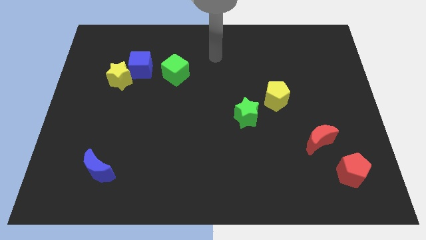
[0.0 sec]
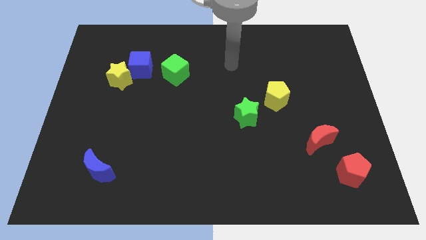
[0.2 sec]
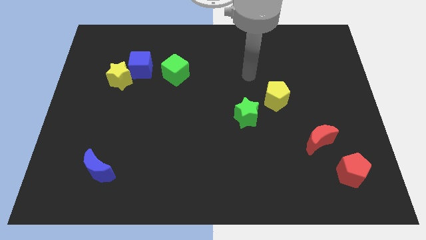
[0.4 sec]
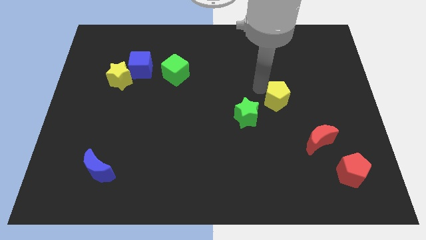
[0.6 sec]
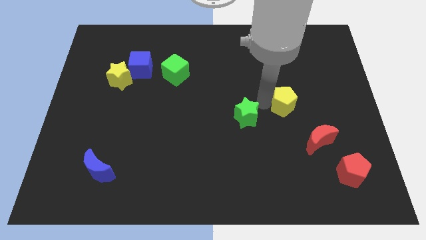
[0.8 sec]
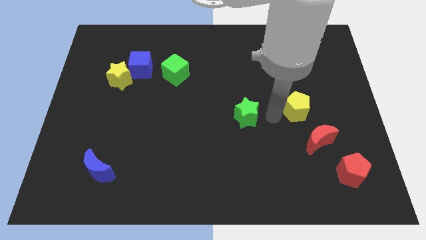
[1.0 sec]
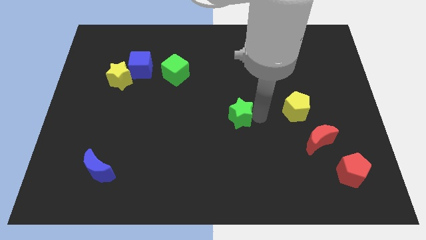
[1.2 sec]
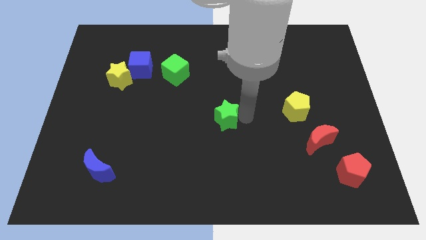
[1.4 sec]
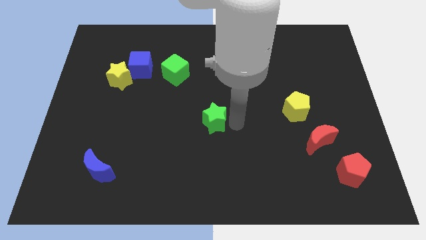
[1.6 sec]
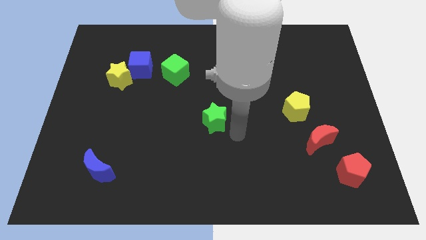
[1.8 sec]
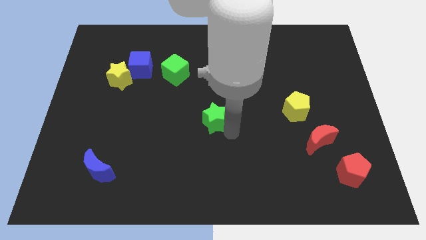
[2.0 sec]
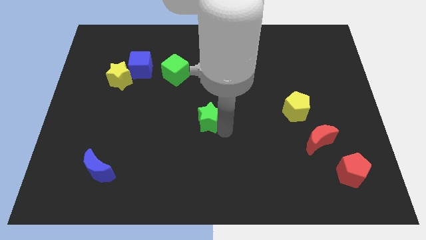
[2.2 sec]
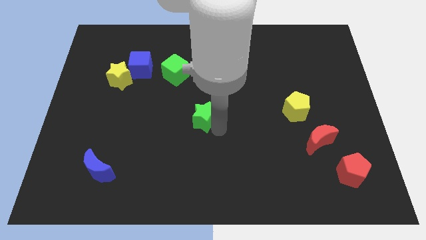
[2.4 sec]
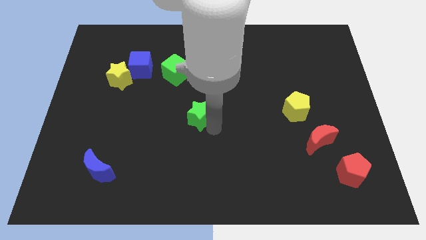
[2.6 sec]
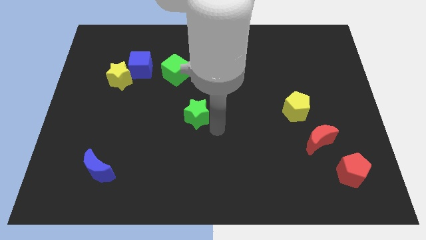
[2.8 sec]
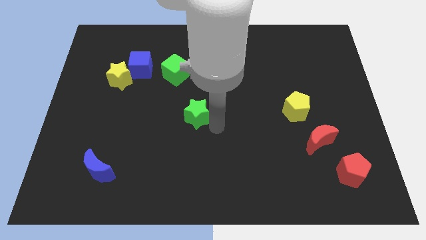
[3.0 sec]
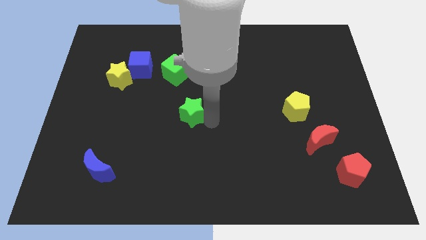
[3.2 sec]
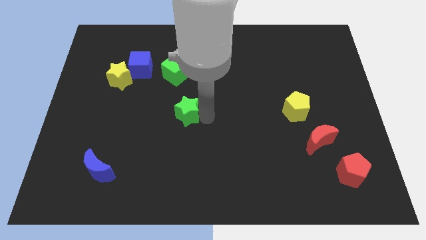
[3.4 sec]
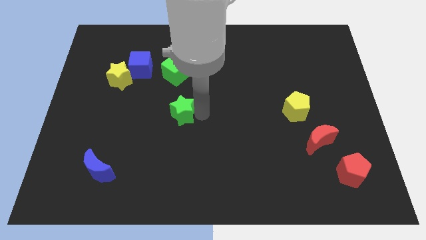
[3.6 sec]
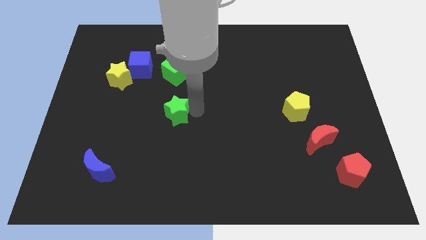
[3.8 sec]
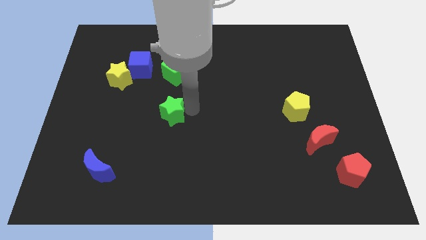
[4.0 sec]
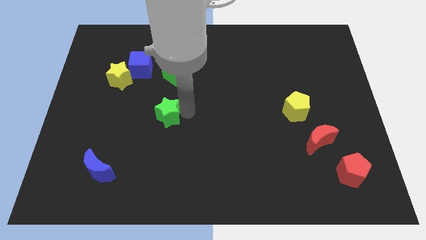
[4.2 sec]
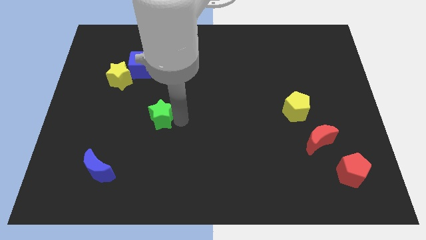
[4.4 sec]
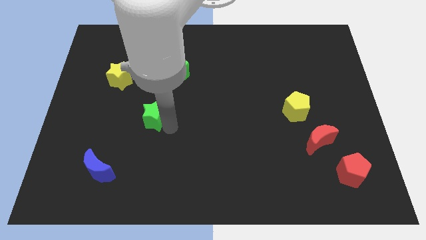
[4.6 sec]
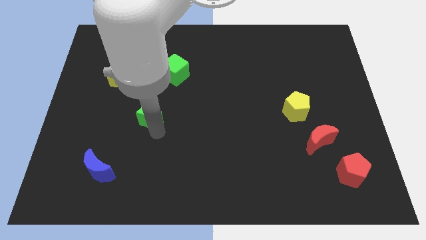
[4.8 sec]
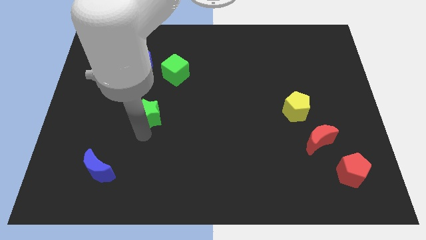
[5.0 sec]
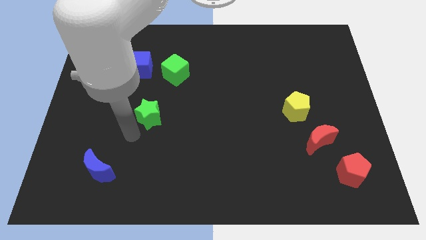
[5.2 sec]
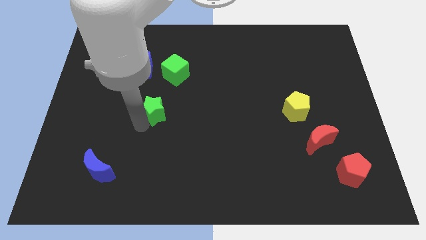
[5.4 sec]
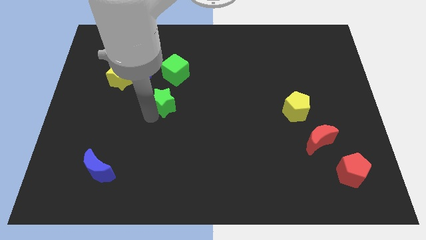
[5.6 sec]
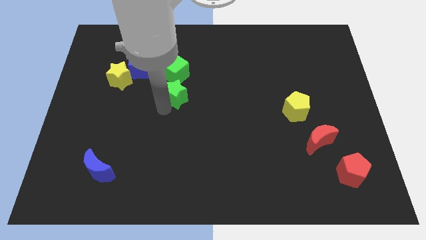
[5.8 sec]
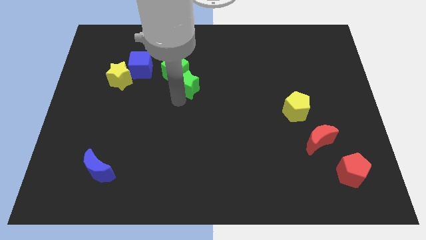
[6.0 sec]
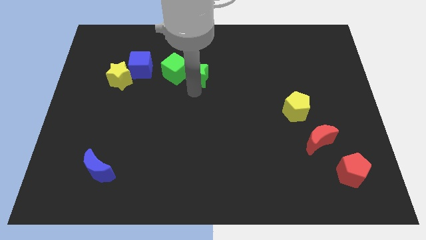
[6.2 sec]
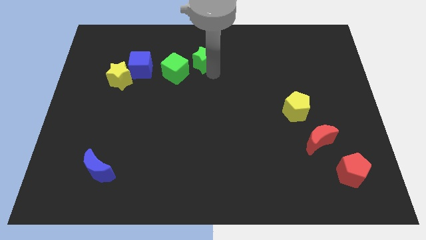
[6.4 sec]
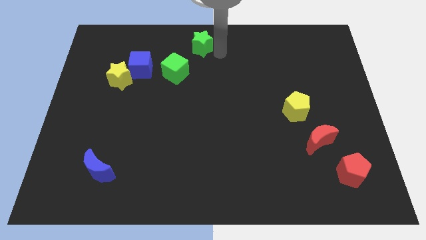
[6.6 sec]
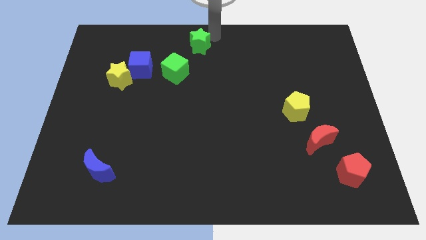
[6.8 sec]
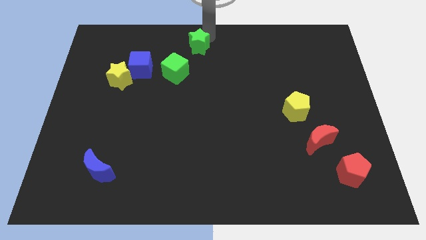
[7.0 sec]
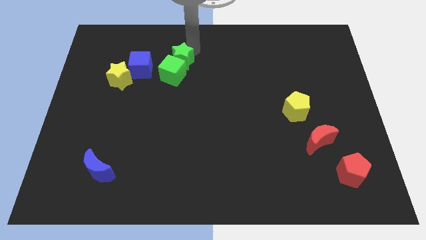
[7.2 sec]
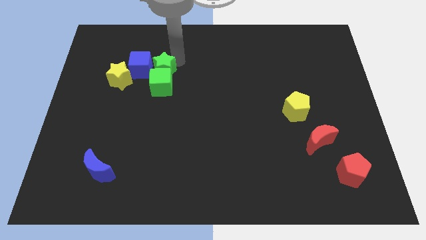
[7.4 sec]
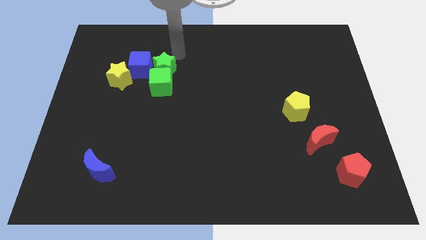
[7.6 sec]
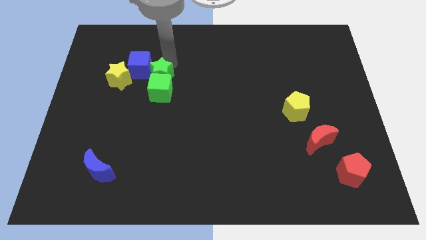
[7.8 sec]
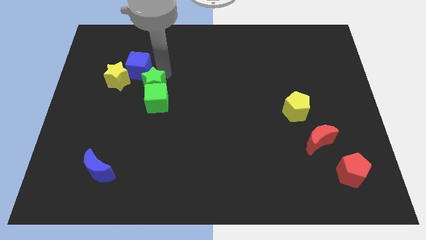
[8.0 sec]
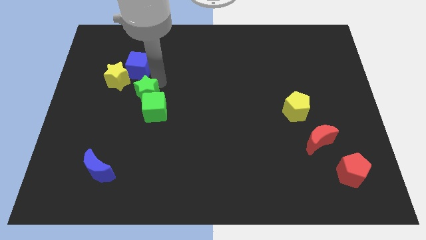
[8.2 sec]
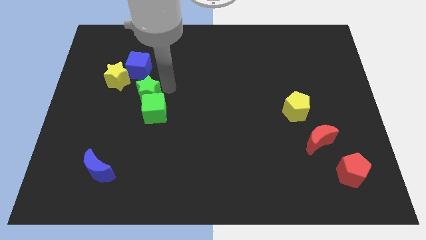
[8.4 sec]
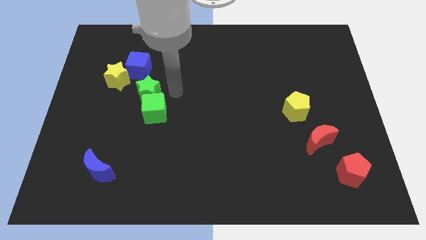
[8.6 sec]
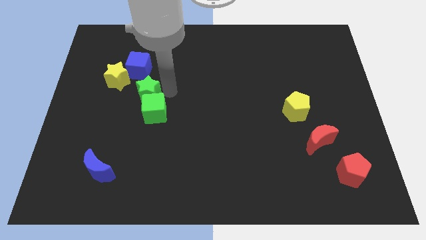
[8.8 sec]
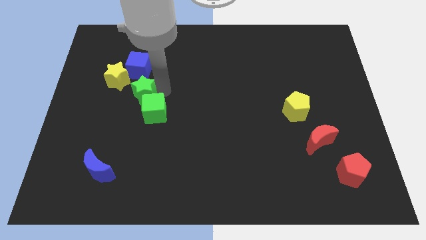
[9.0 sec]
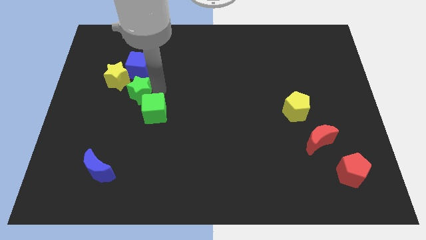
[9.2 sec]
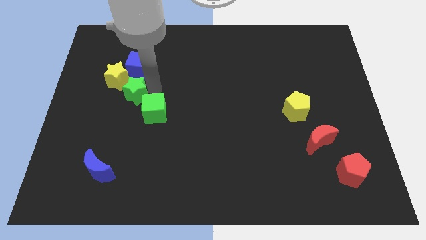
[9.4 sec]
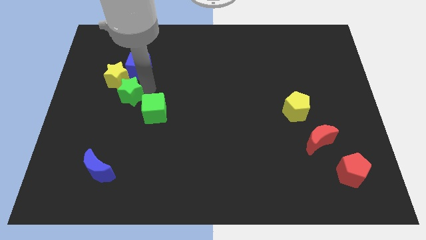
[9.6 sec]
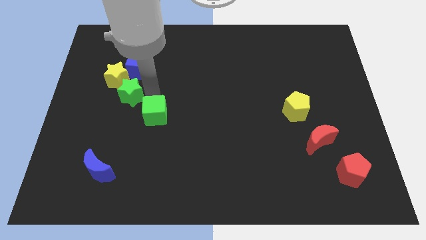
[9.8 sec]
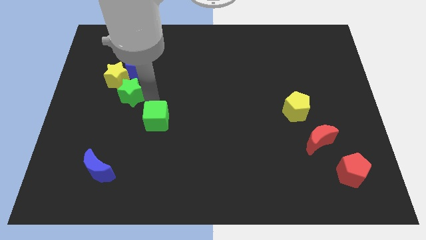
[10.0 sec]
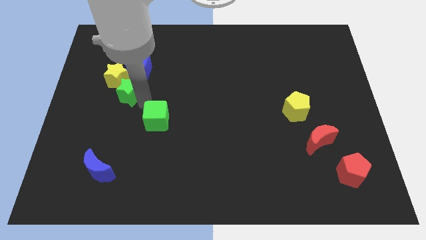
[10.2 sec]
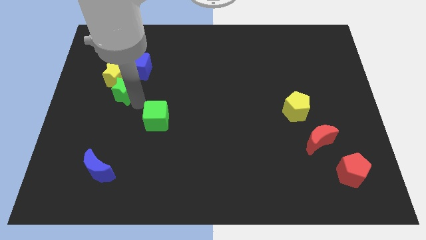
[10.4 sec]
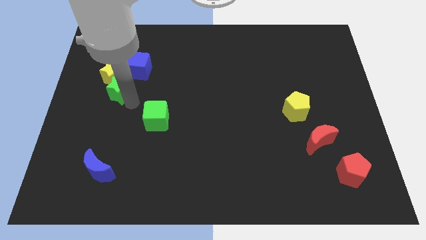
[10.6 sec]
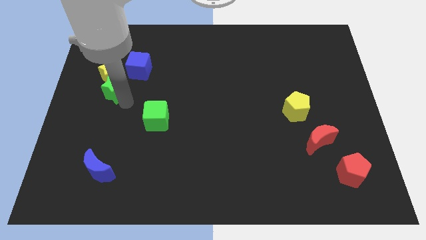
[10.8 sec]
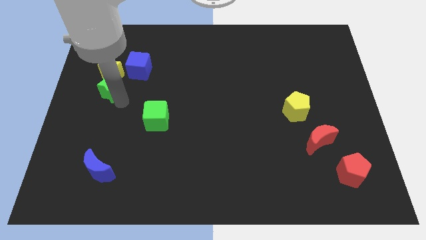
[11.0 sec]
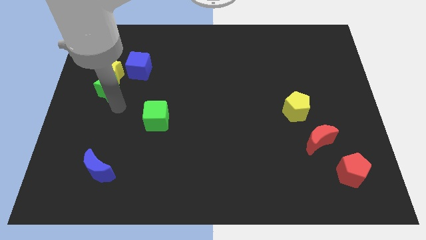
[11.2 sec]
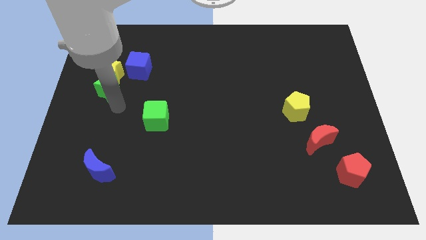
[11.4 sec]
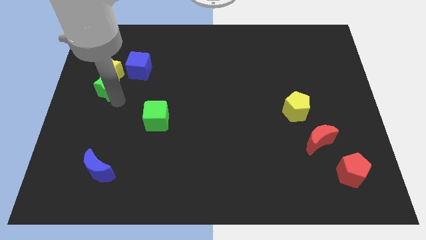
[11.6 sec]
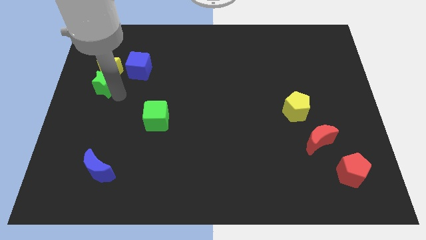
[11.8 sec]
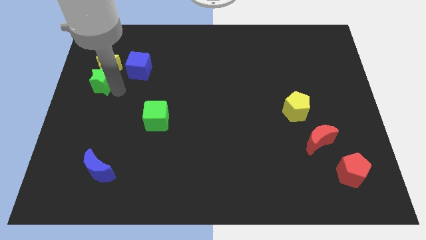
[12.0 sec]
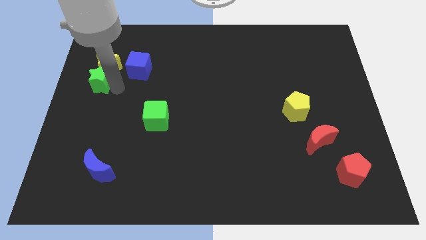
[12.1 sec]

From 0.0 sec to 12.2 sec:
put the green star left of the blue cube
